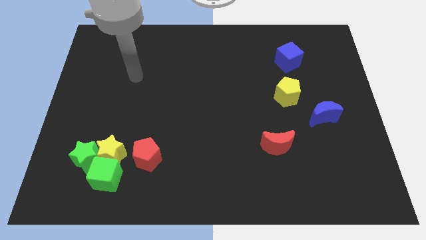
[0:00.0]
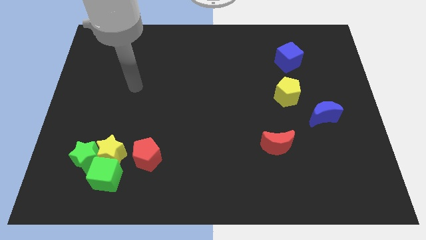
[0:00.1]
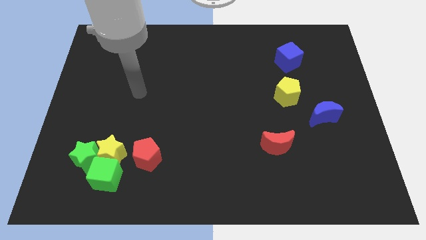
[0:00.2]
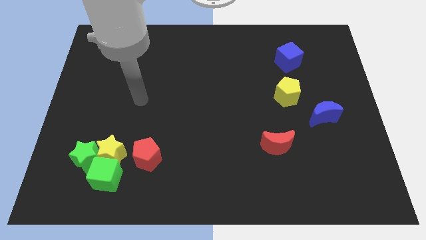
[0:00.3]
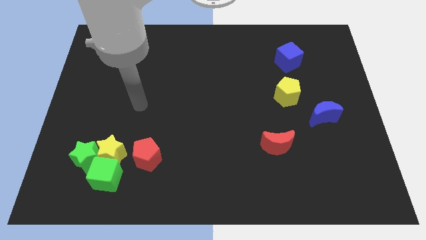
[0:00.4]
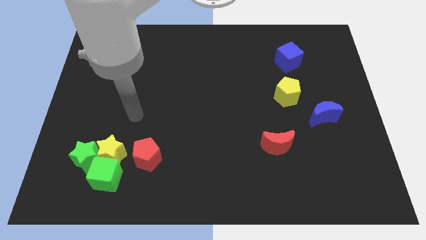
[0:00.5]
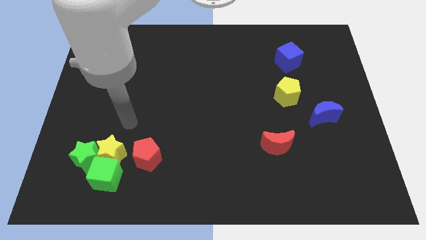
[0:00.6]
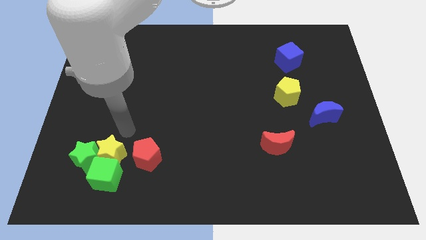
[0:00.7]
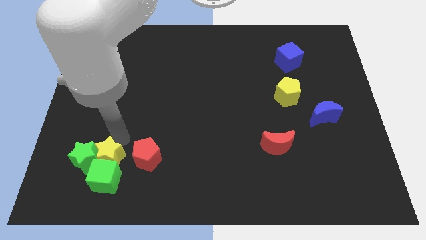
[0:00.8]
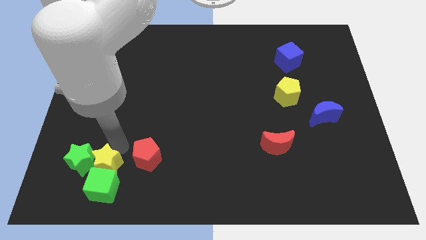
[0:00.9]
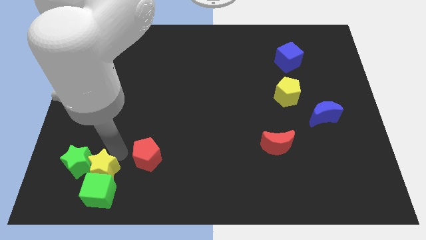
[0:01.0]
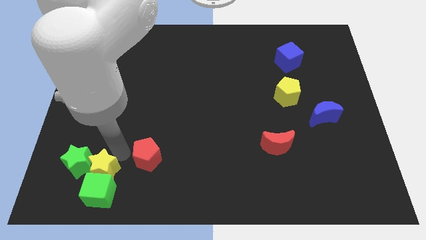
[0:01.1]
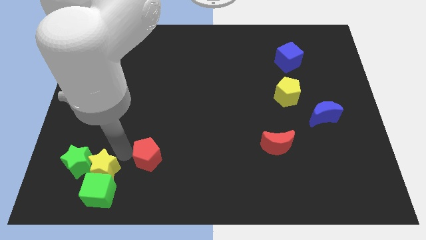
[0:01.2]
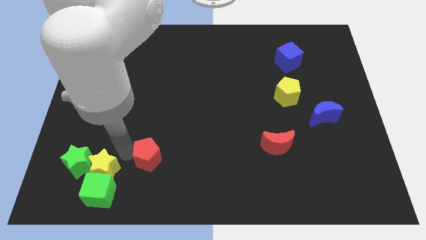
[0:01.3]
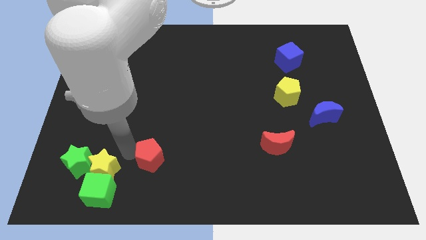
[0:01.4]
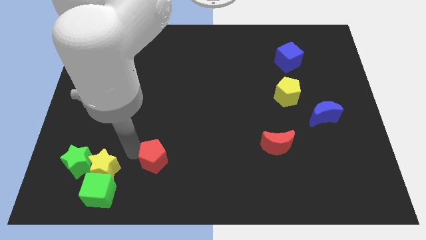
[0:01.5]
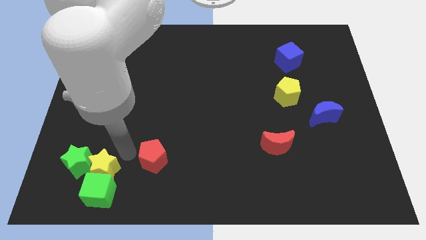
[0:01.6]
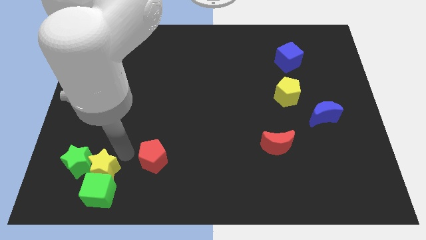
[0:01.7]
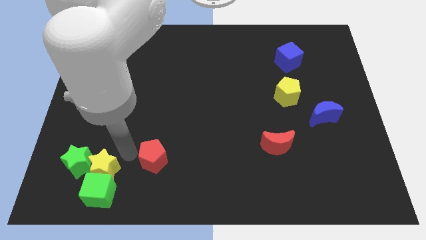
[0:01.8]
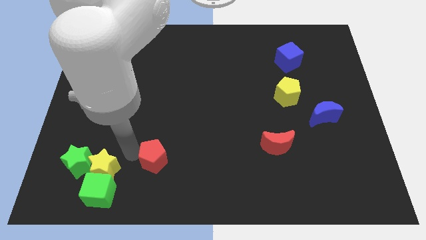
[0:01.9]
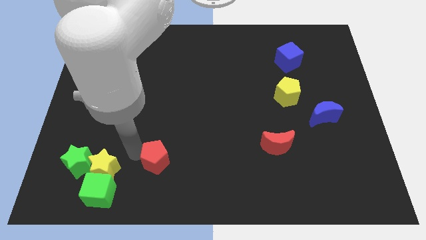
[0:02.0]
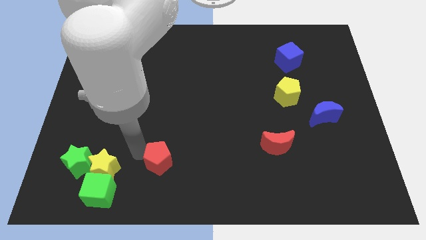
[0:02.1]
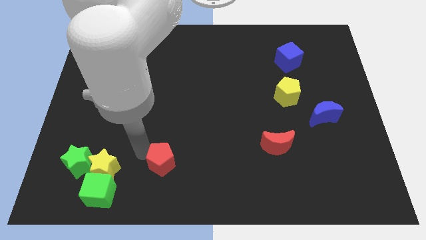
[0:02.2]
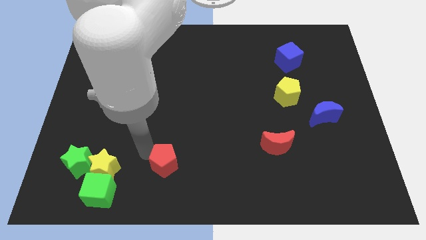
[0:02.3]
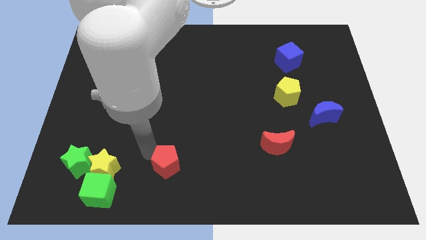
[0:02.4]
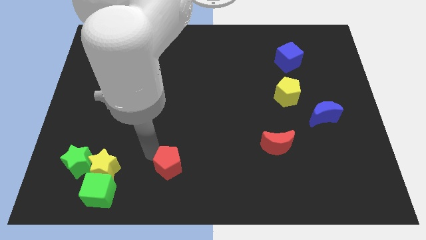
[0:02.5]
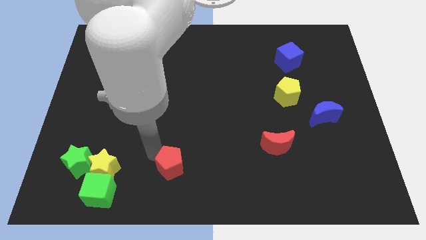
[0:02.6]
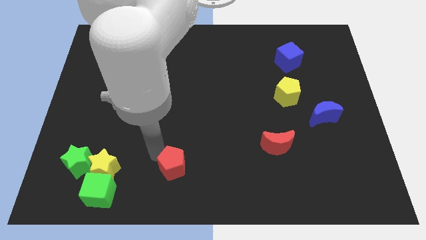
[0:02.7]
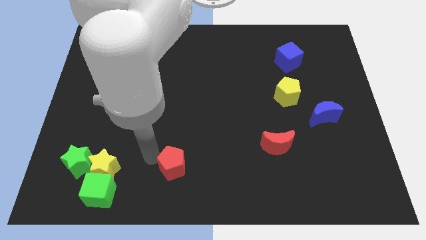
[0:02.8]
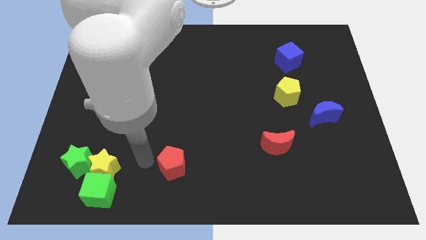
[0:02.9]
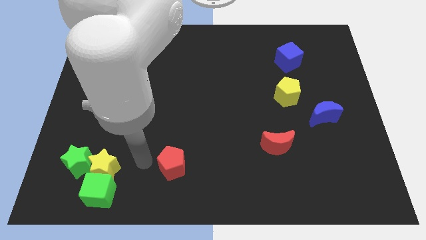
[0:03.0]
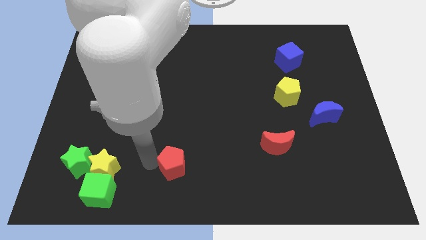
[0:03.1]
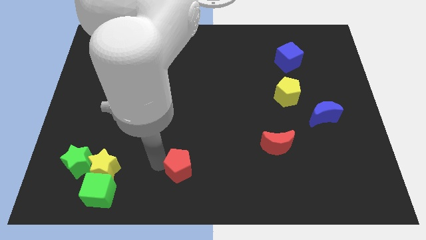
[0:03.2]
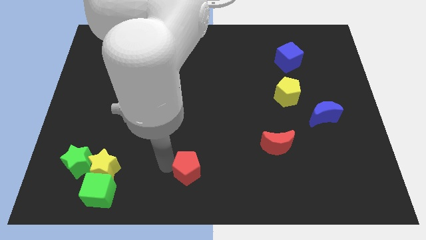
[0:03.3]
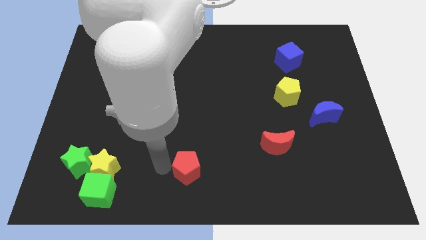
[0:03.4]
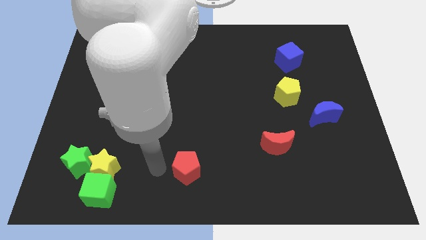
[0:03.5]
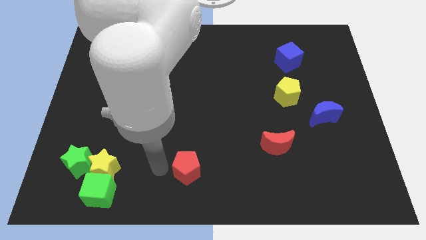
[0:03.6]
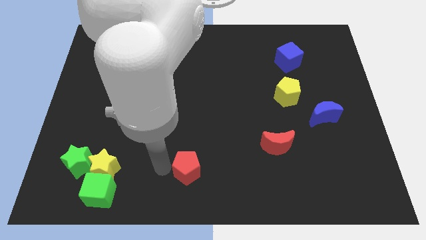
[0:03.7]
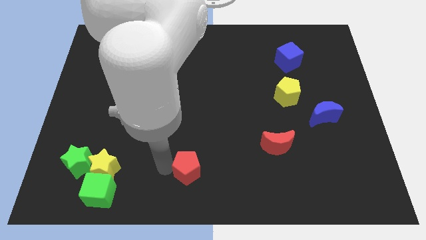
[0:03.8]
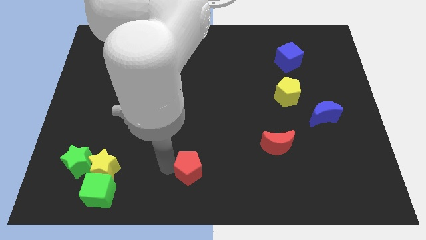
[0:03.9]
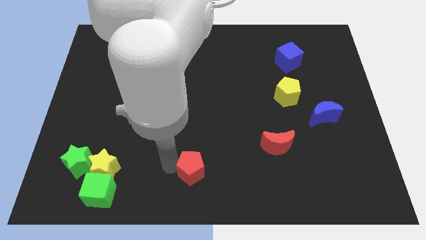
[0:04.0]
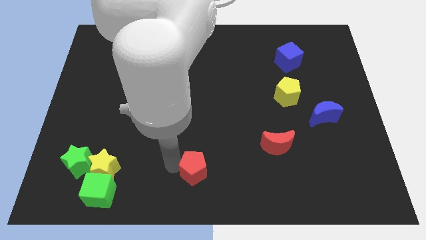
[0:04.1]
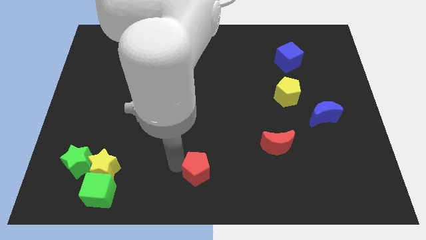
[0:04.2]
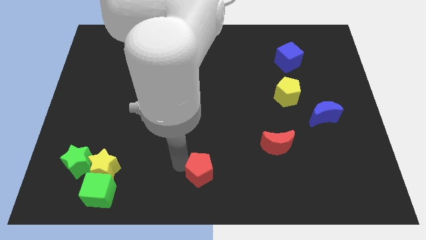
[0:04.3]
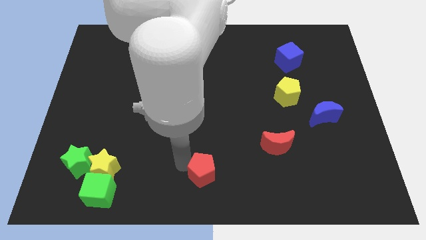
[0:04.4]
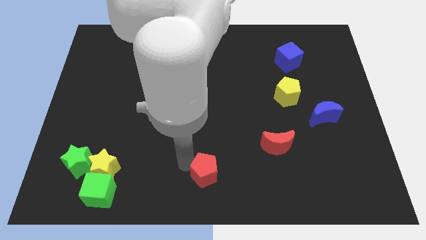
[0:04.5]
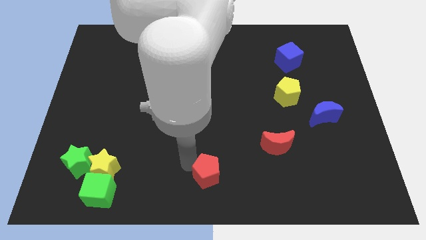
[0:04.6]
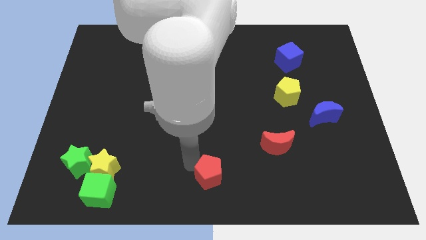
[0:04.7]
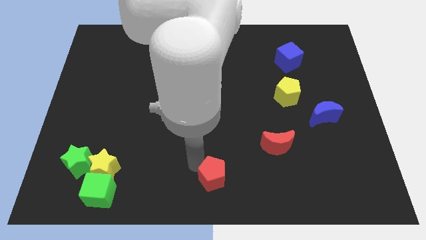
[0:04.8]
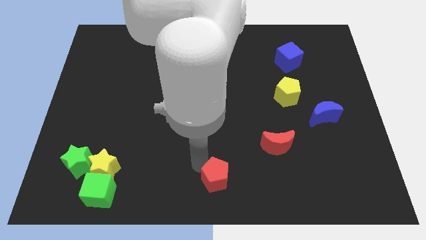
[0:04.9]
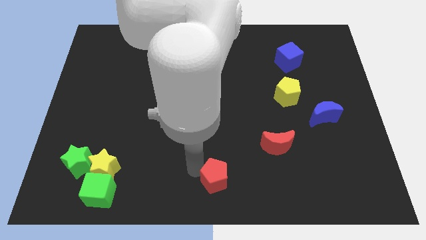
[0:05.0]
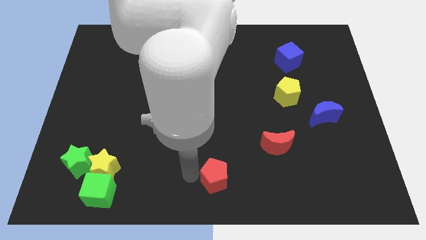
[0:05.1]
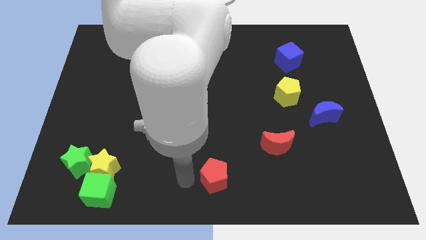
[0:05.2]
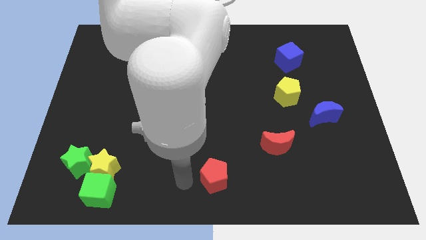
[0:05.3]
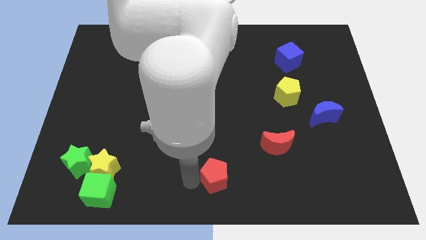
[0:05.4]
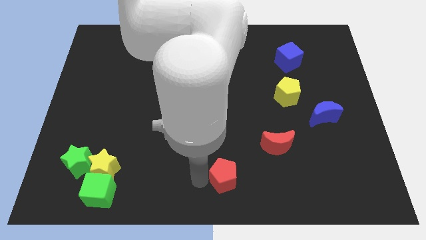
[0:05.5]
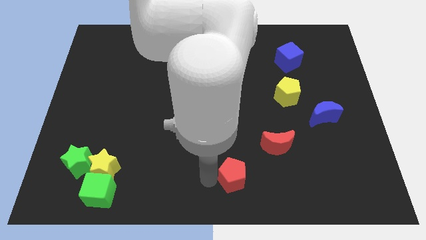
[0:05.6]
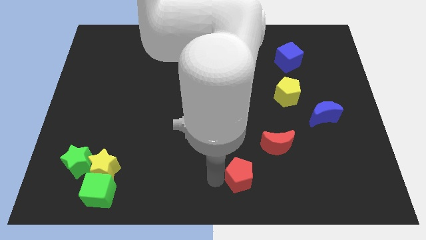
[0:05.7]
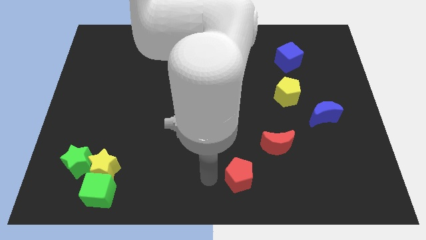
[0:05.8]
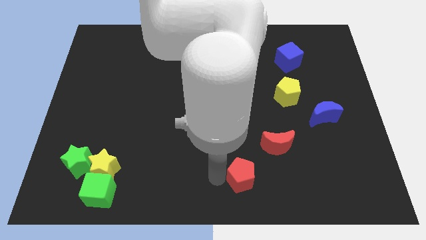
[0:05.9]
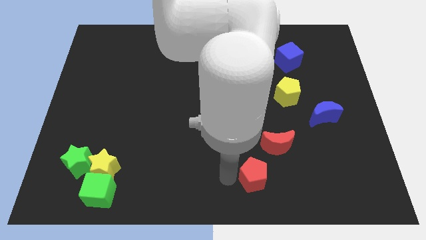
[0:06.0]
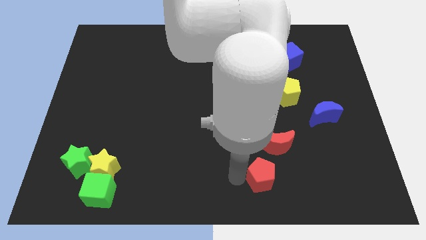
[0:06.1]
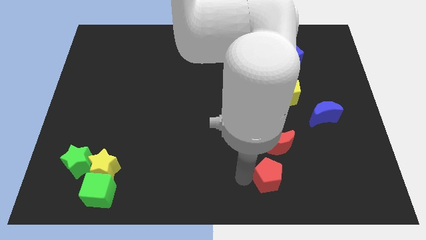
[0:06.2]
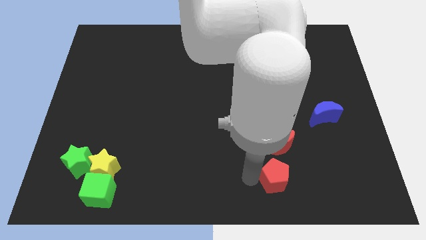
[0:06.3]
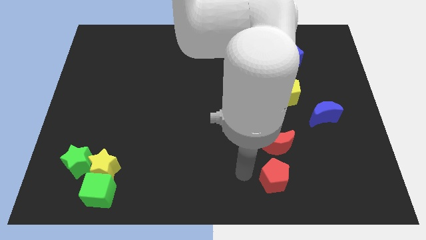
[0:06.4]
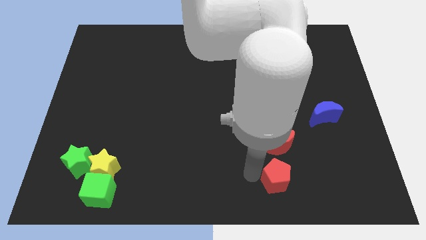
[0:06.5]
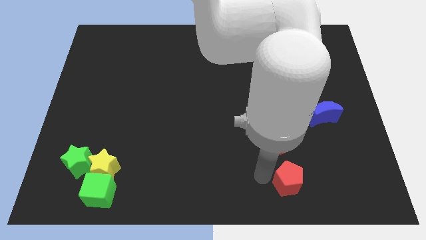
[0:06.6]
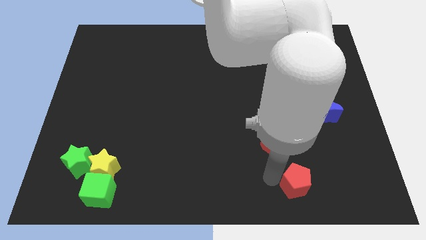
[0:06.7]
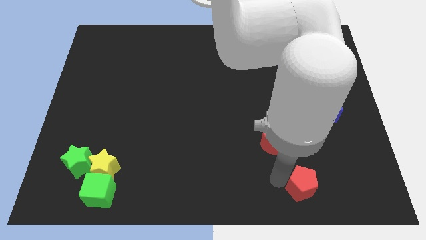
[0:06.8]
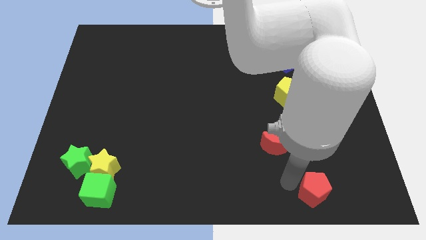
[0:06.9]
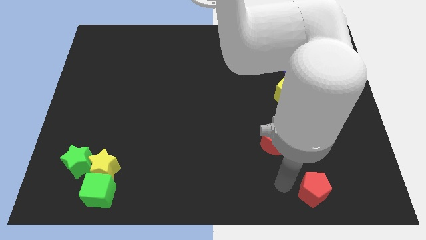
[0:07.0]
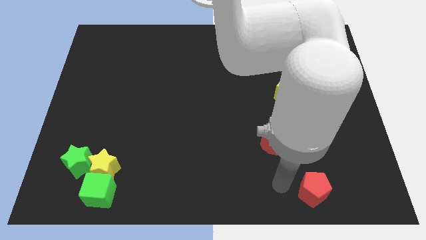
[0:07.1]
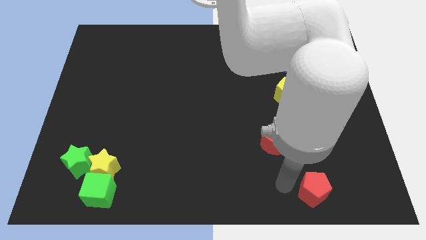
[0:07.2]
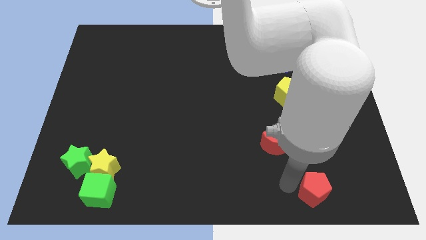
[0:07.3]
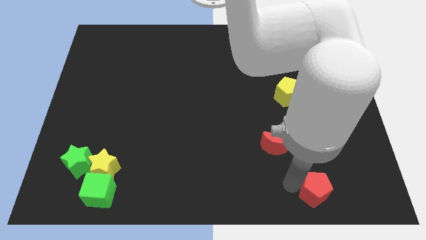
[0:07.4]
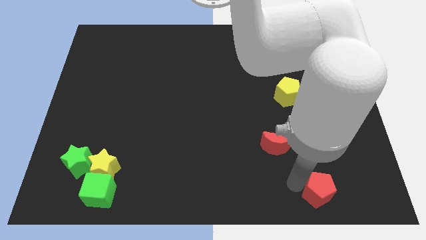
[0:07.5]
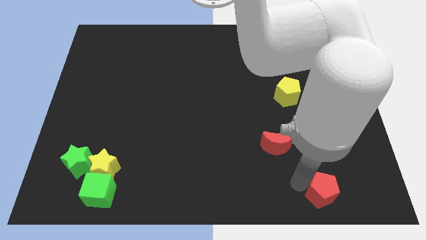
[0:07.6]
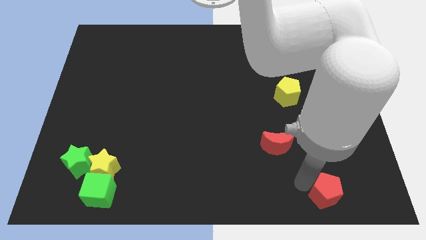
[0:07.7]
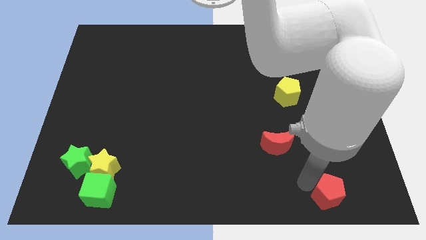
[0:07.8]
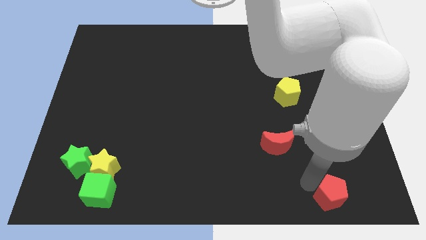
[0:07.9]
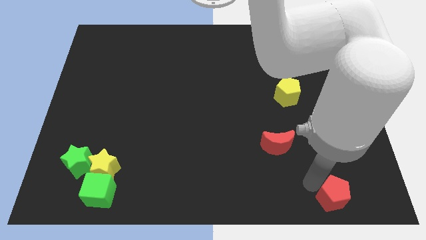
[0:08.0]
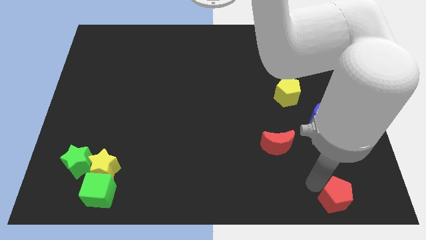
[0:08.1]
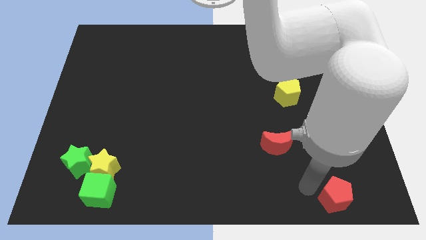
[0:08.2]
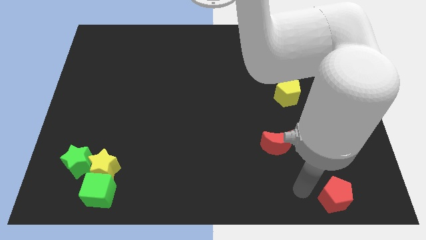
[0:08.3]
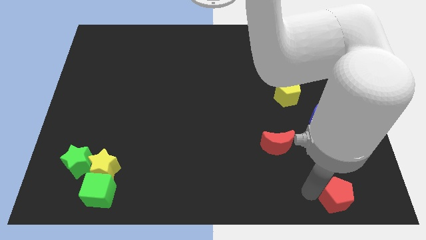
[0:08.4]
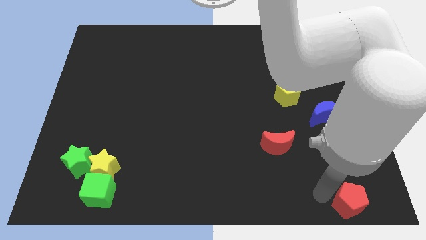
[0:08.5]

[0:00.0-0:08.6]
push the red pentagon to the bottom right of the board
